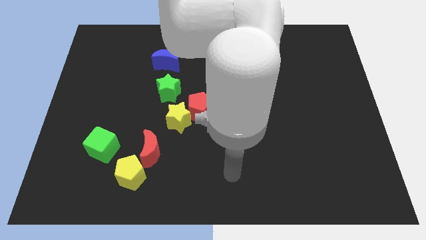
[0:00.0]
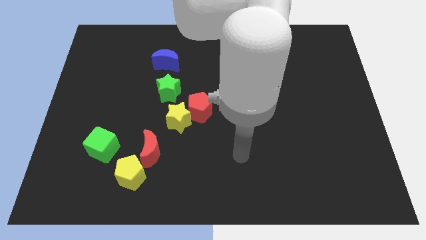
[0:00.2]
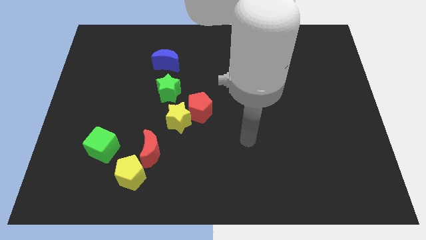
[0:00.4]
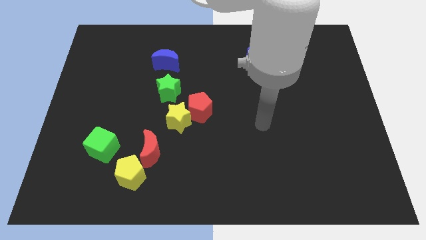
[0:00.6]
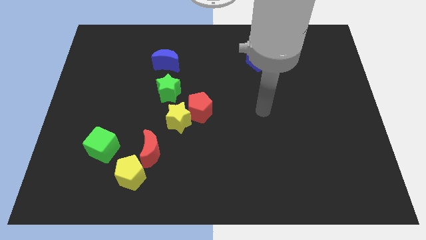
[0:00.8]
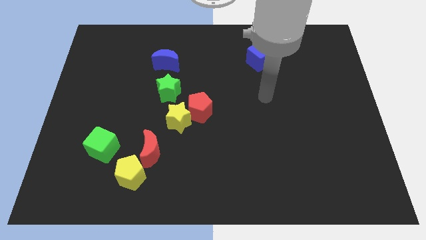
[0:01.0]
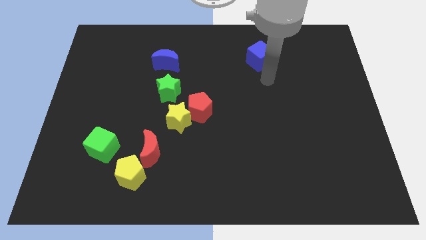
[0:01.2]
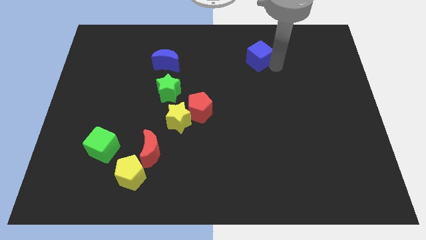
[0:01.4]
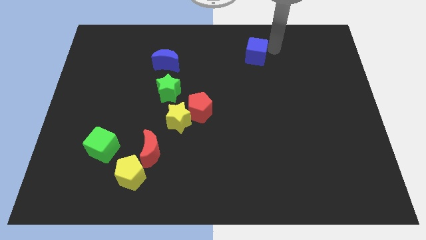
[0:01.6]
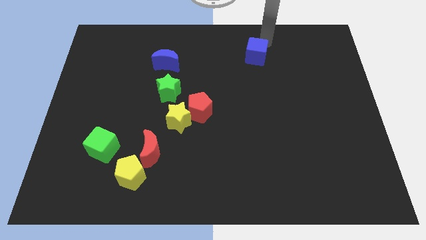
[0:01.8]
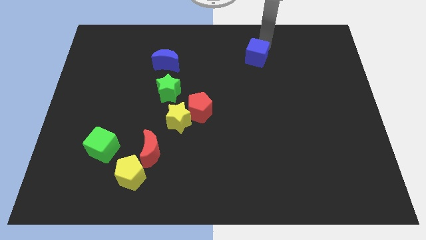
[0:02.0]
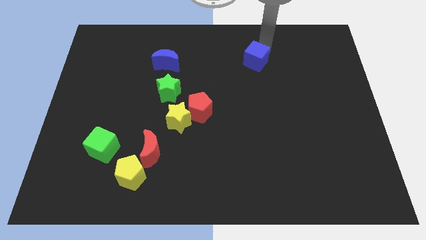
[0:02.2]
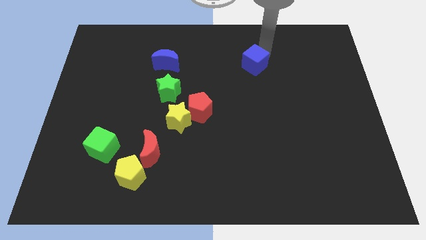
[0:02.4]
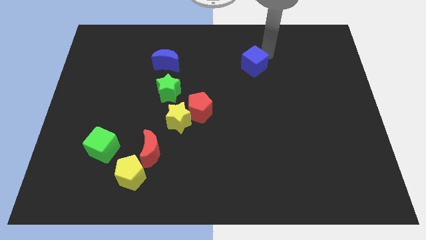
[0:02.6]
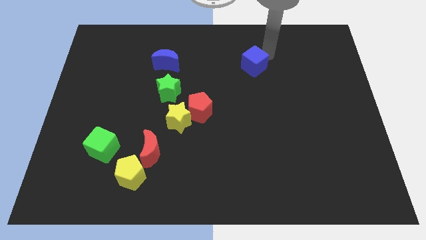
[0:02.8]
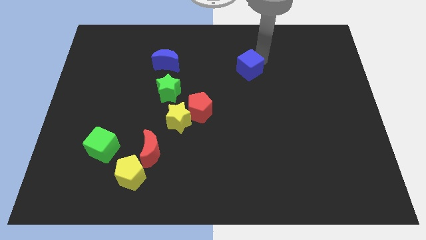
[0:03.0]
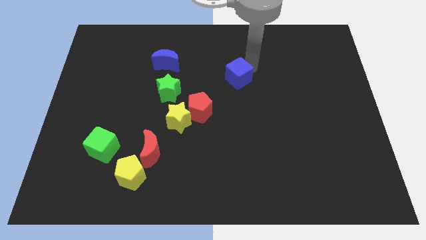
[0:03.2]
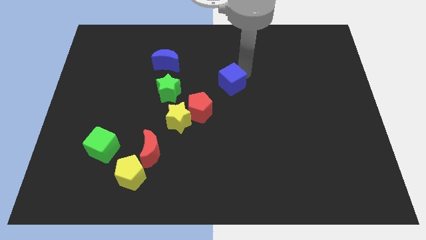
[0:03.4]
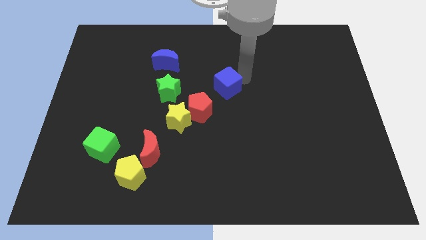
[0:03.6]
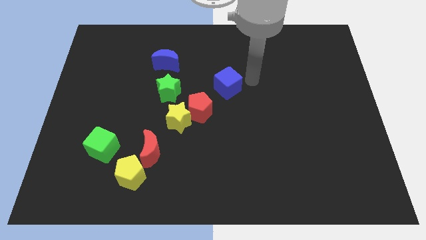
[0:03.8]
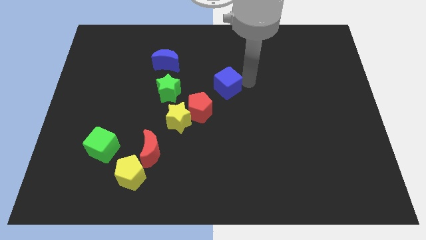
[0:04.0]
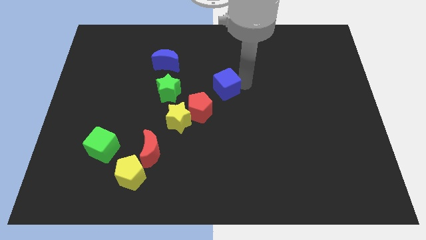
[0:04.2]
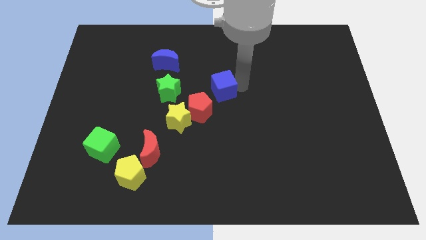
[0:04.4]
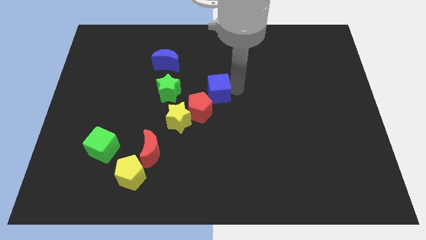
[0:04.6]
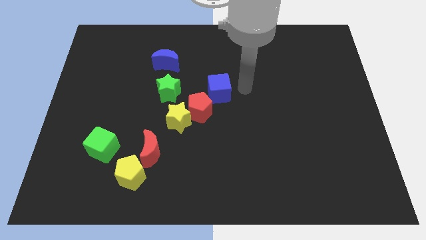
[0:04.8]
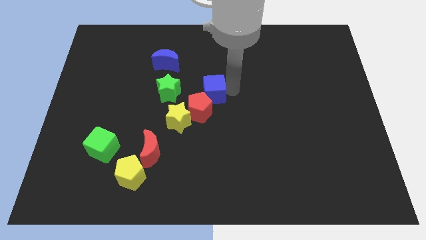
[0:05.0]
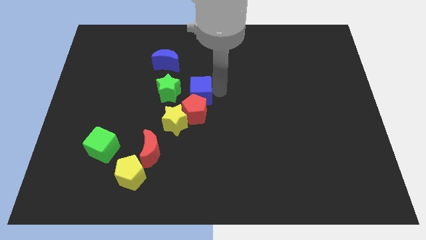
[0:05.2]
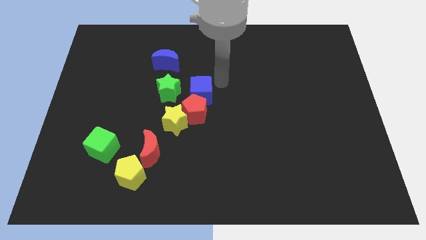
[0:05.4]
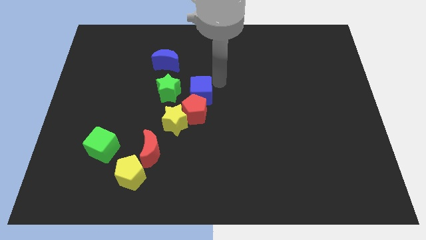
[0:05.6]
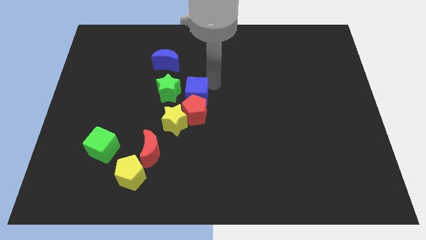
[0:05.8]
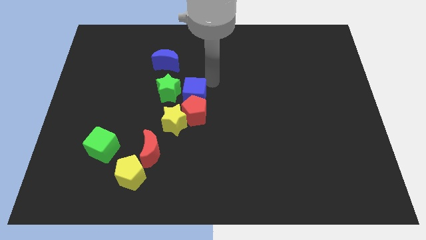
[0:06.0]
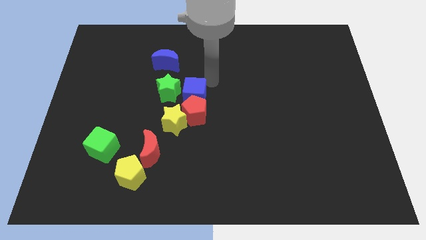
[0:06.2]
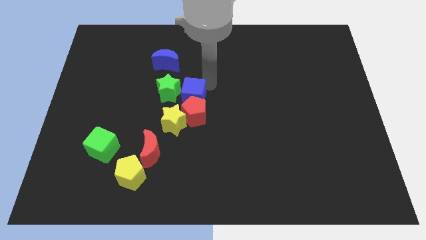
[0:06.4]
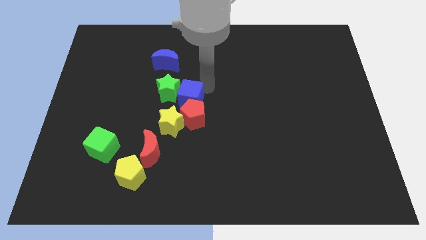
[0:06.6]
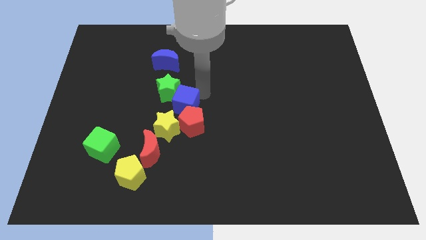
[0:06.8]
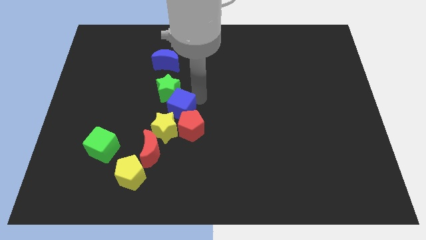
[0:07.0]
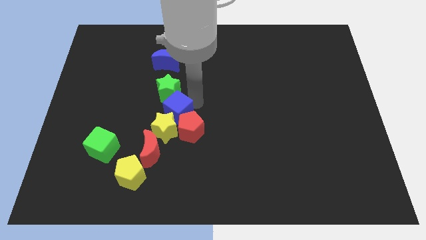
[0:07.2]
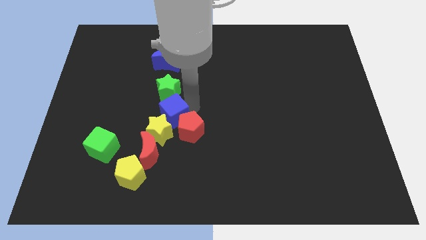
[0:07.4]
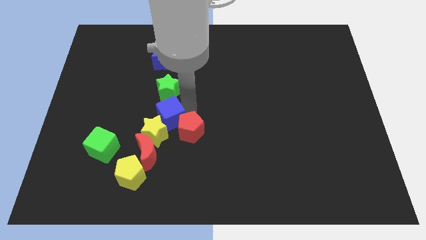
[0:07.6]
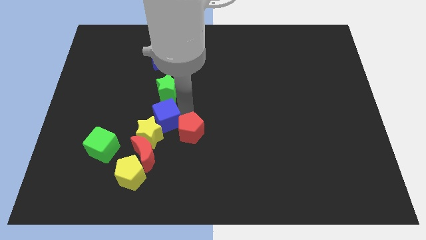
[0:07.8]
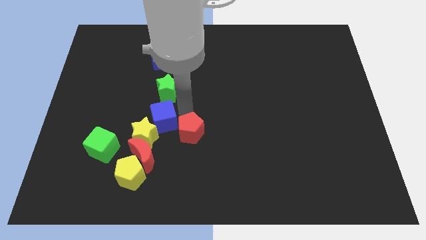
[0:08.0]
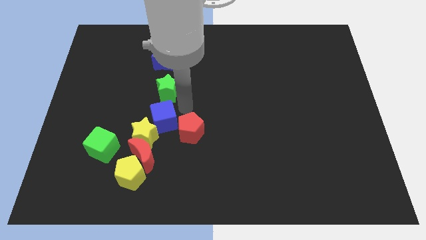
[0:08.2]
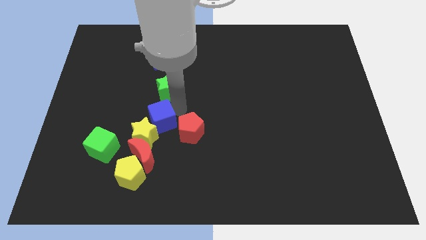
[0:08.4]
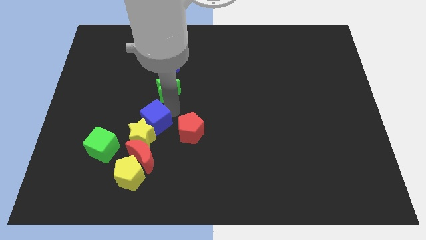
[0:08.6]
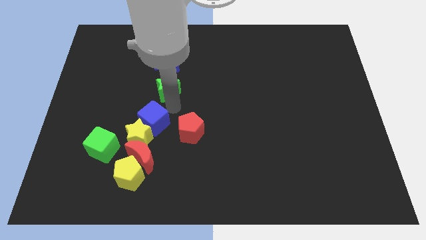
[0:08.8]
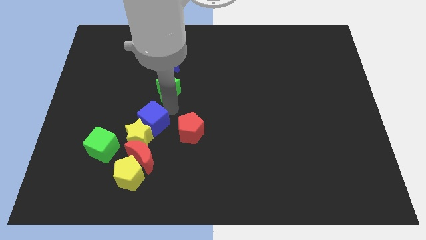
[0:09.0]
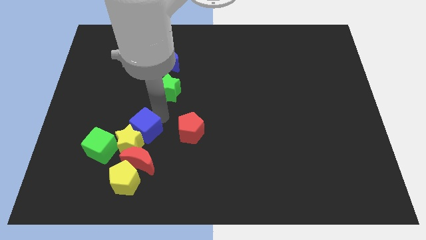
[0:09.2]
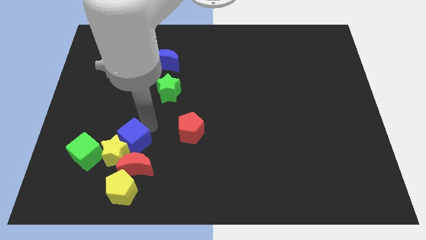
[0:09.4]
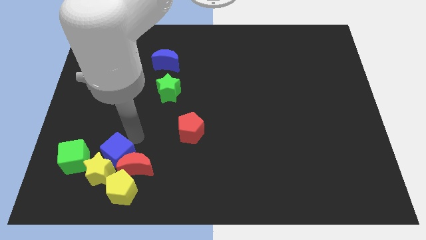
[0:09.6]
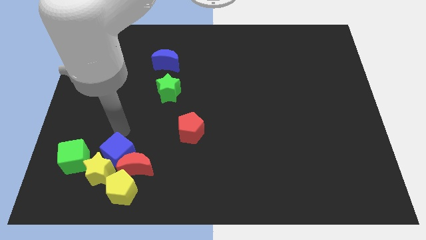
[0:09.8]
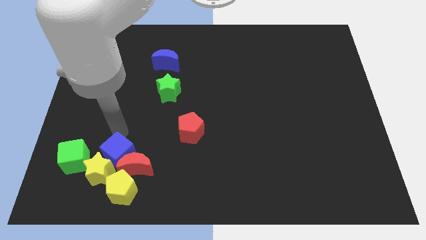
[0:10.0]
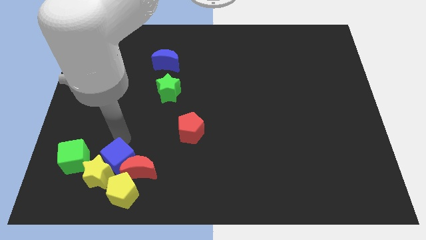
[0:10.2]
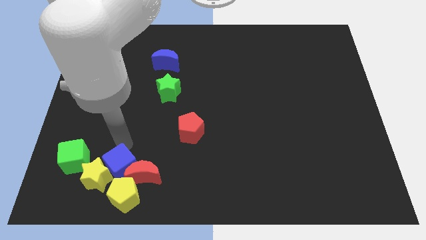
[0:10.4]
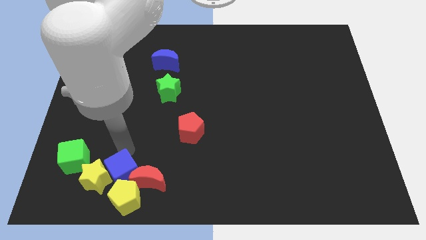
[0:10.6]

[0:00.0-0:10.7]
move the blue cube close to the yellow pentagon

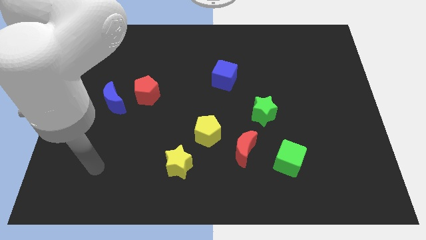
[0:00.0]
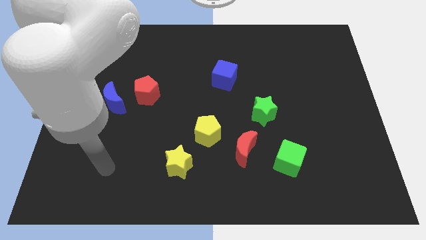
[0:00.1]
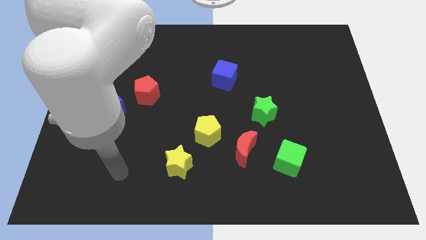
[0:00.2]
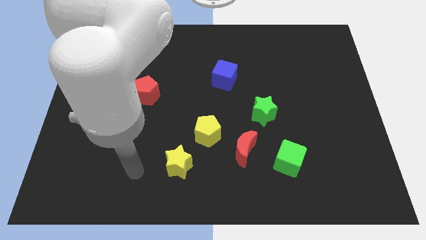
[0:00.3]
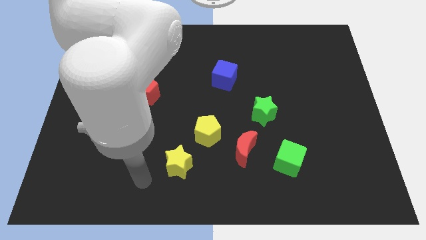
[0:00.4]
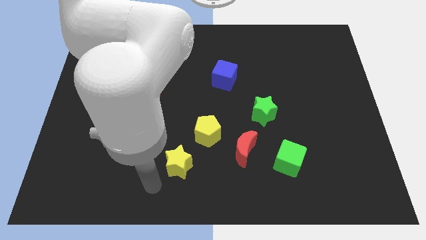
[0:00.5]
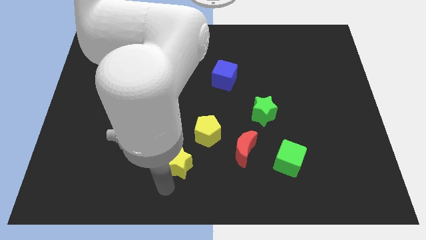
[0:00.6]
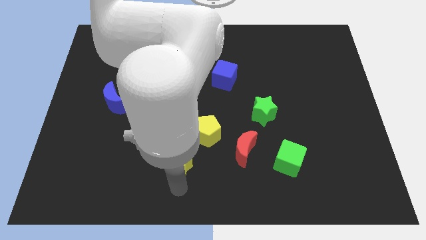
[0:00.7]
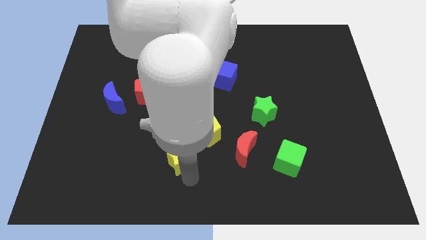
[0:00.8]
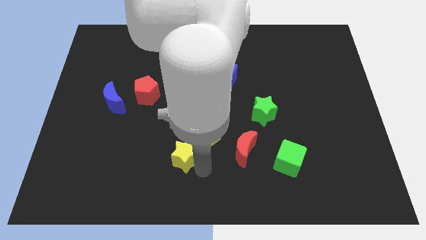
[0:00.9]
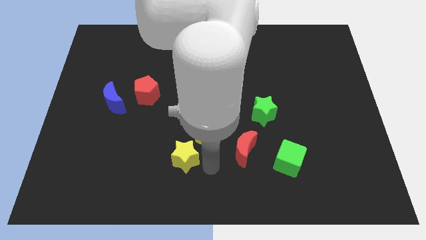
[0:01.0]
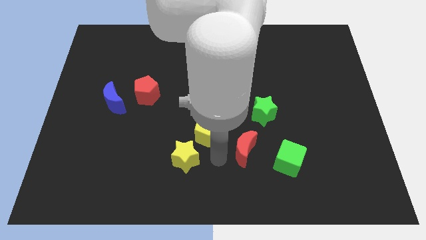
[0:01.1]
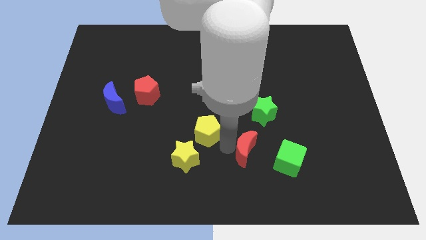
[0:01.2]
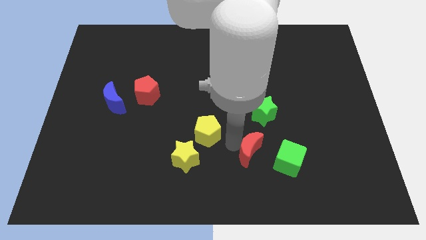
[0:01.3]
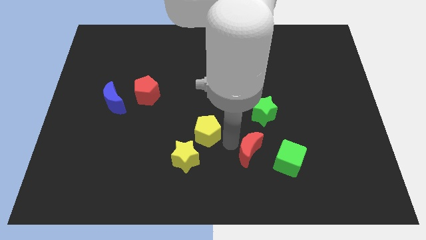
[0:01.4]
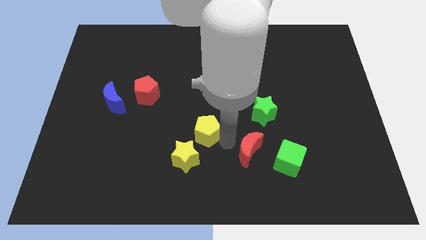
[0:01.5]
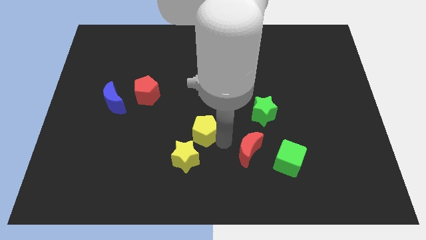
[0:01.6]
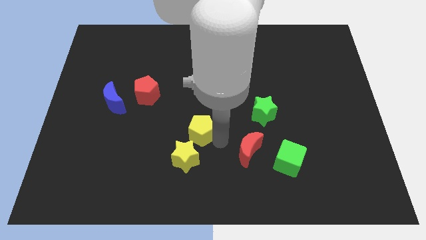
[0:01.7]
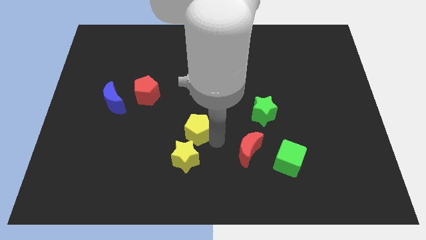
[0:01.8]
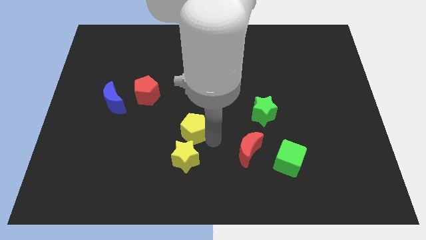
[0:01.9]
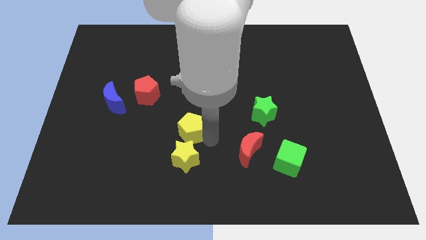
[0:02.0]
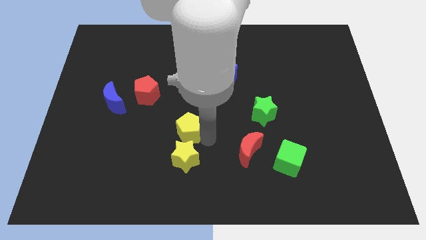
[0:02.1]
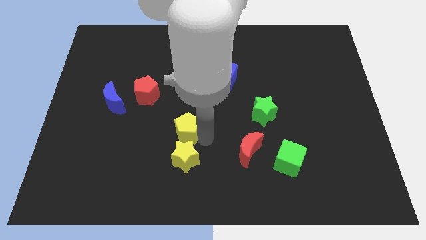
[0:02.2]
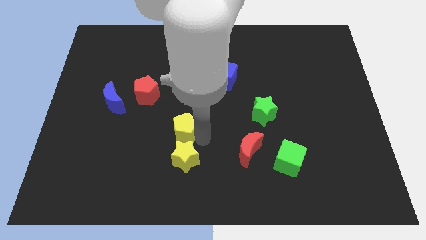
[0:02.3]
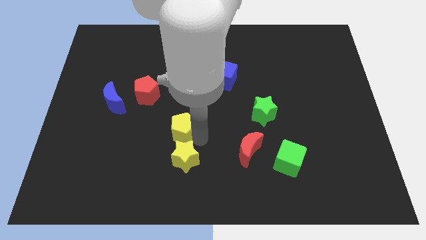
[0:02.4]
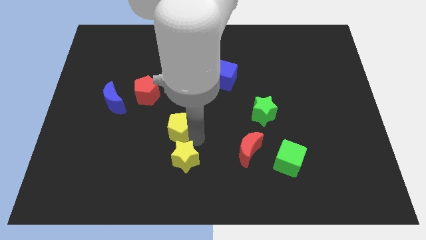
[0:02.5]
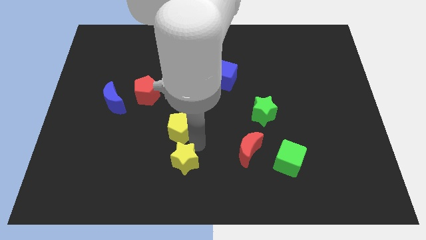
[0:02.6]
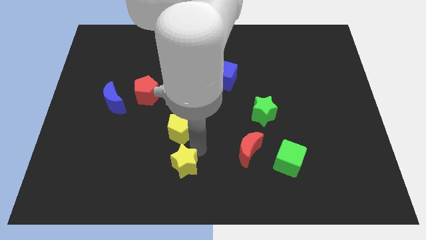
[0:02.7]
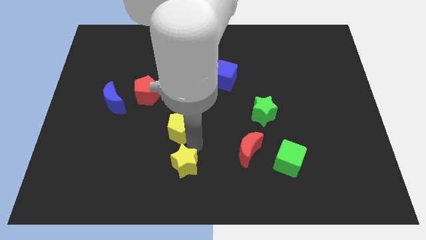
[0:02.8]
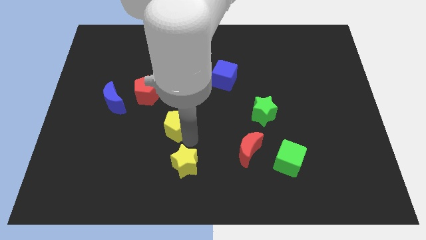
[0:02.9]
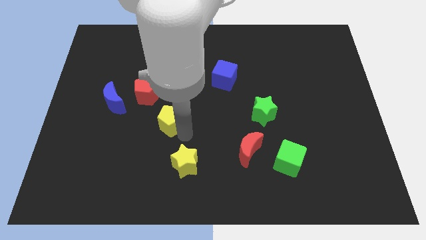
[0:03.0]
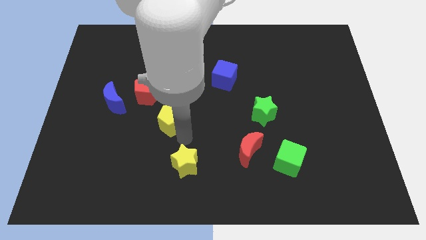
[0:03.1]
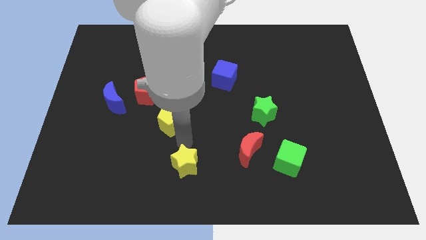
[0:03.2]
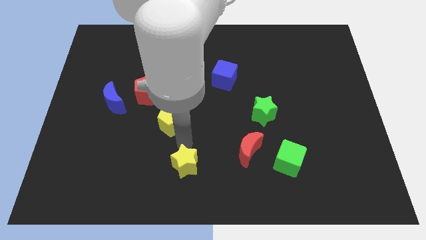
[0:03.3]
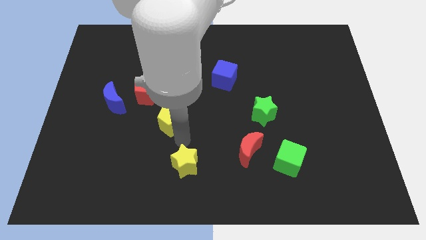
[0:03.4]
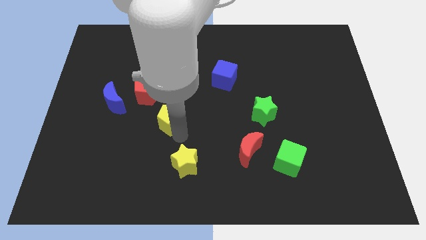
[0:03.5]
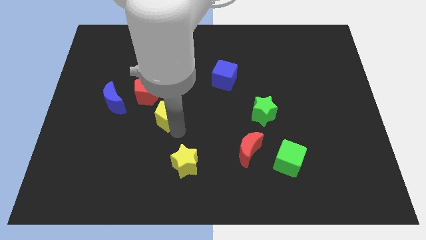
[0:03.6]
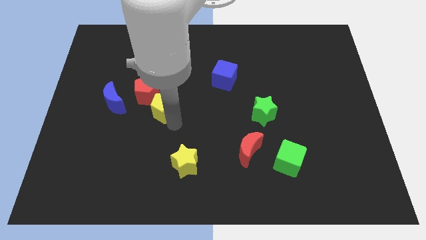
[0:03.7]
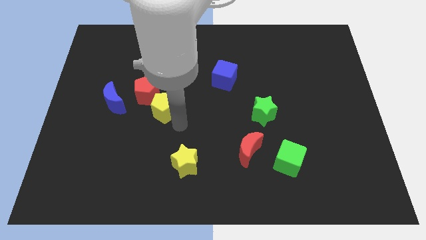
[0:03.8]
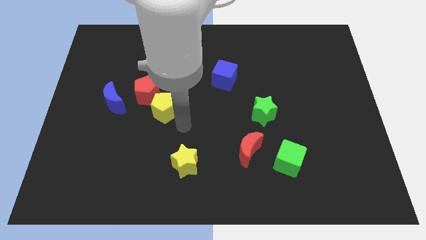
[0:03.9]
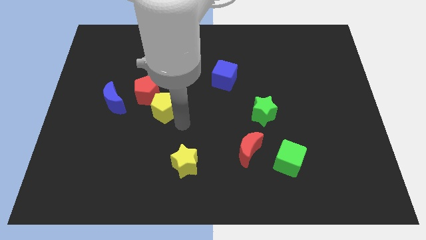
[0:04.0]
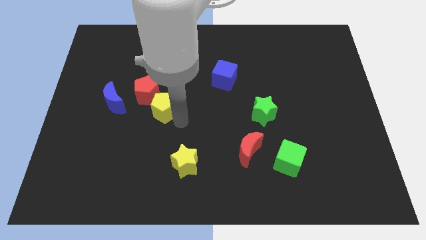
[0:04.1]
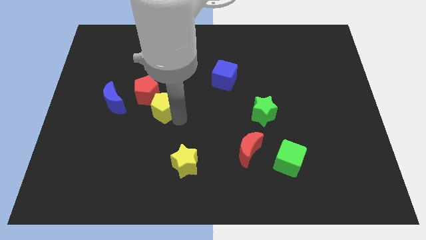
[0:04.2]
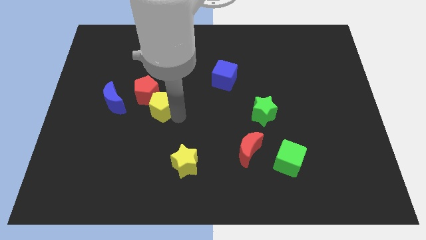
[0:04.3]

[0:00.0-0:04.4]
move the yellow pentagon next to the red pentagon
